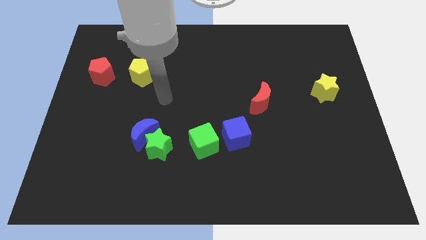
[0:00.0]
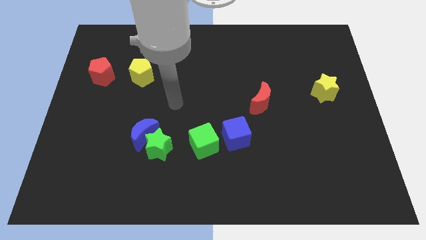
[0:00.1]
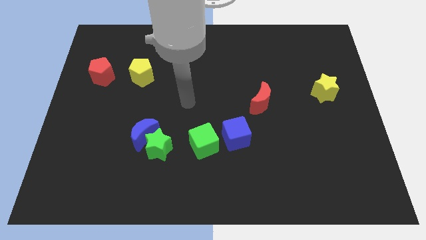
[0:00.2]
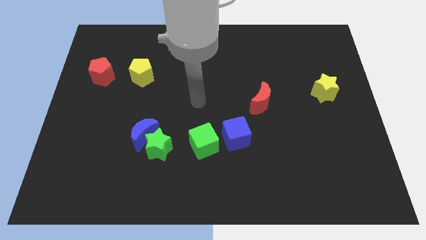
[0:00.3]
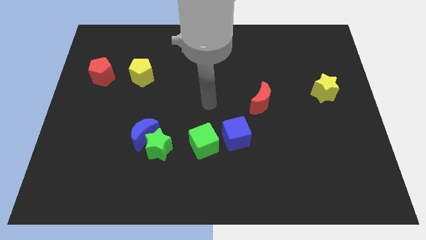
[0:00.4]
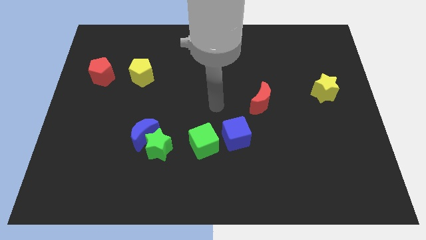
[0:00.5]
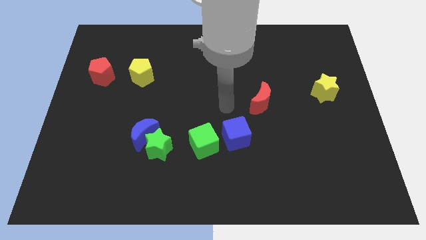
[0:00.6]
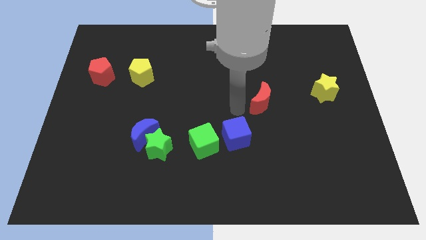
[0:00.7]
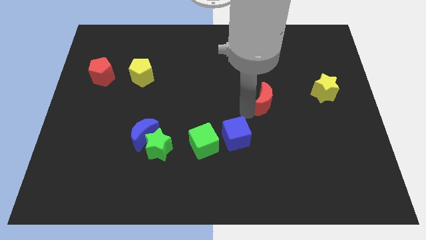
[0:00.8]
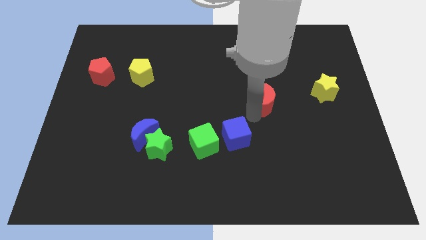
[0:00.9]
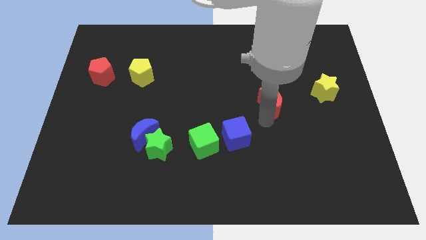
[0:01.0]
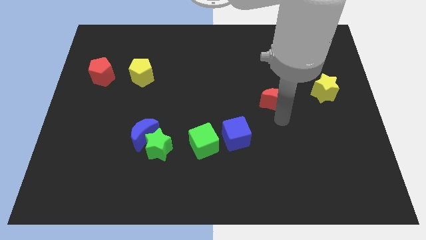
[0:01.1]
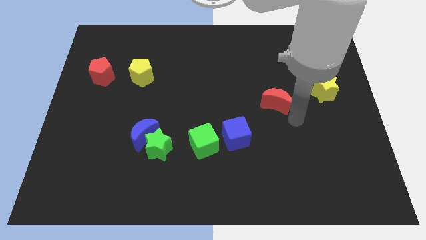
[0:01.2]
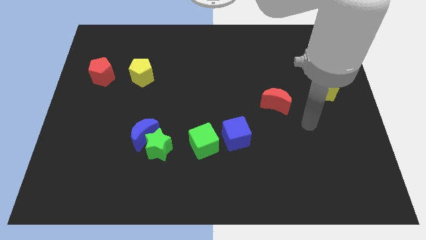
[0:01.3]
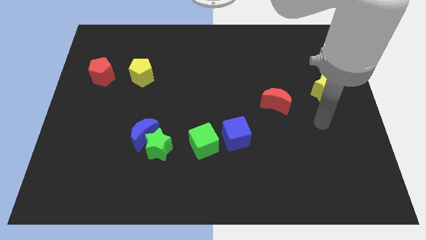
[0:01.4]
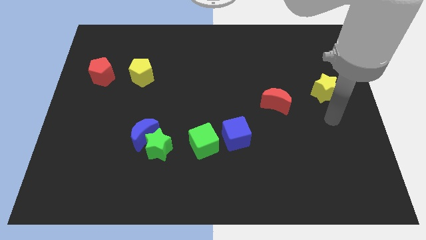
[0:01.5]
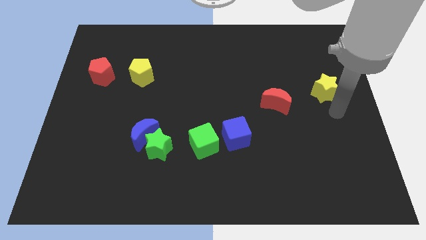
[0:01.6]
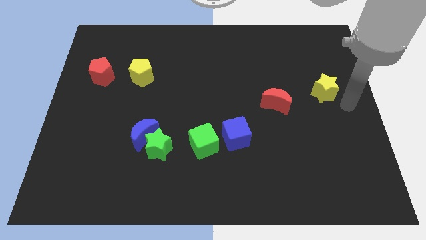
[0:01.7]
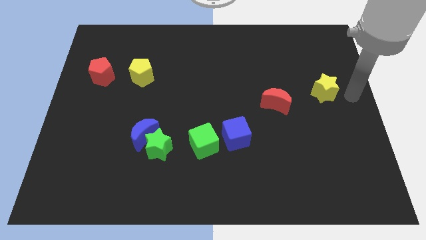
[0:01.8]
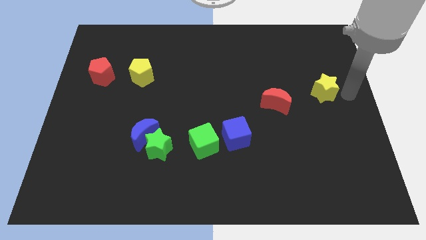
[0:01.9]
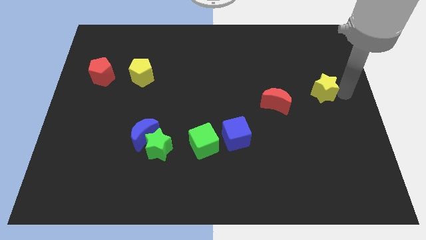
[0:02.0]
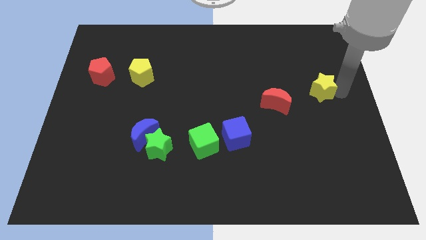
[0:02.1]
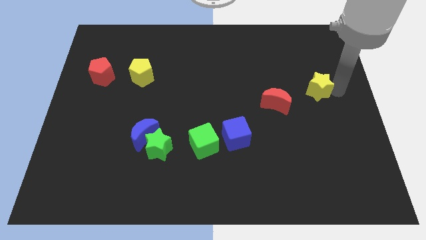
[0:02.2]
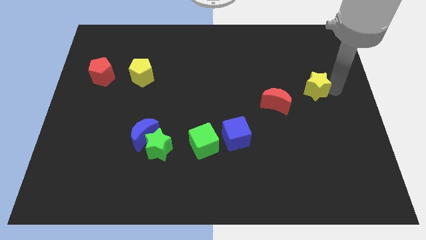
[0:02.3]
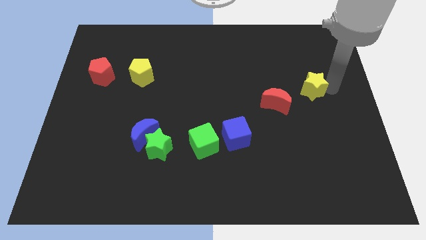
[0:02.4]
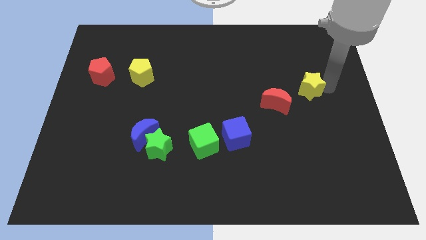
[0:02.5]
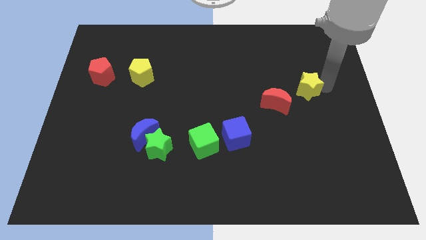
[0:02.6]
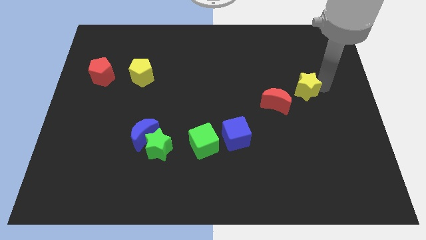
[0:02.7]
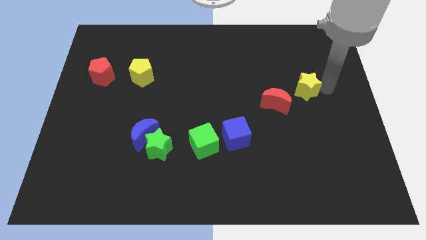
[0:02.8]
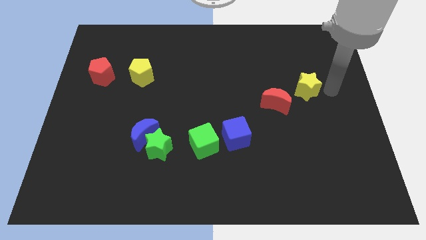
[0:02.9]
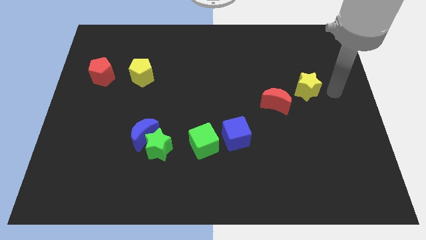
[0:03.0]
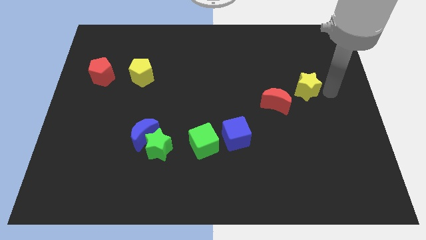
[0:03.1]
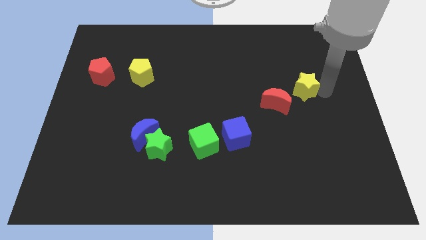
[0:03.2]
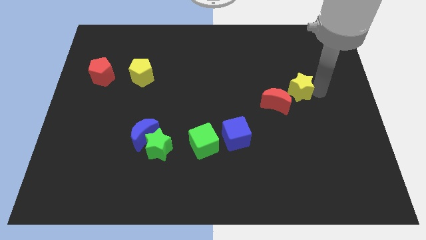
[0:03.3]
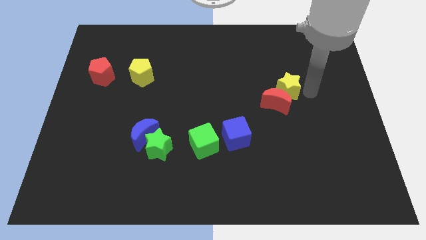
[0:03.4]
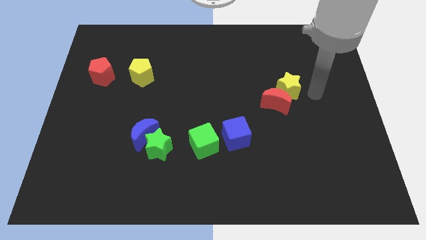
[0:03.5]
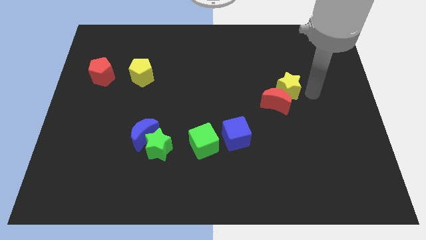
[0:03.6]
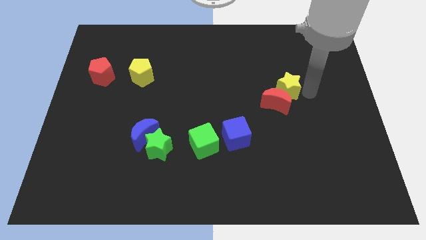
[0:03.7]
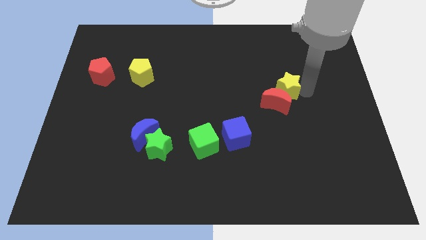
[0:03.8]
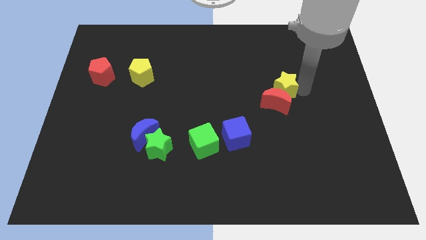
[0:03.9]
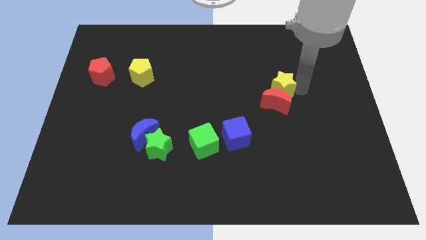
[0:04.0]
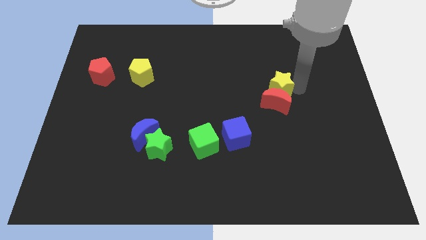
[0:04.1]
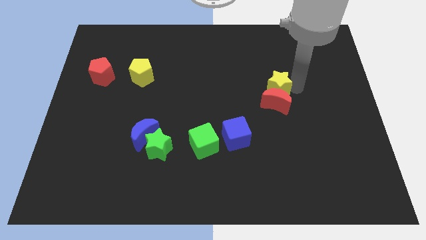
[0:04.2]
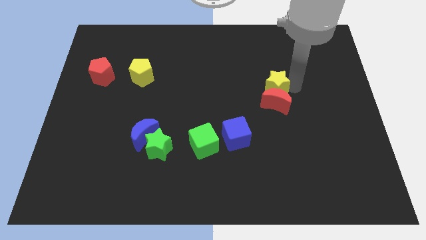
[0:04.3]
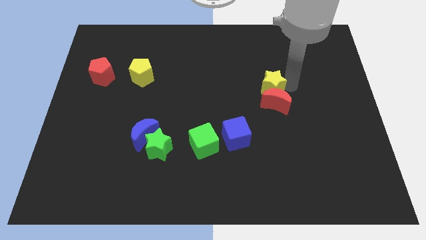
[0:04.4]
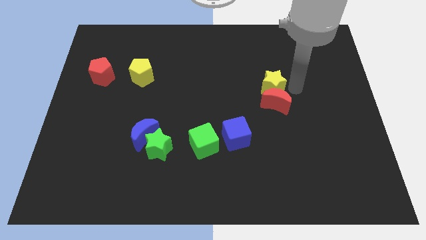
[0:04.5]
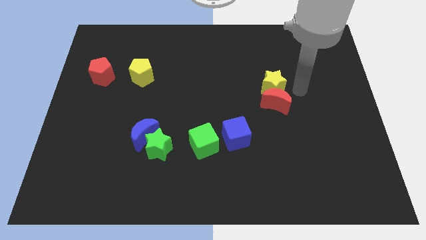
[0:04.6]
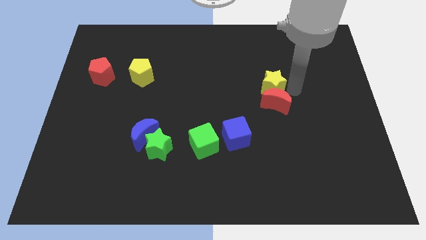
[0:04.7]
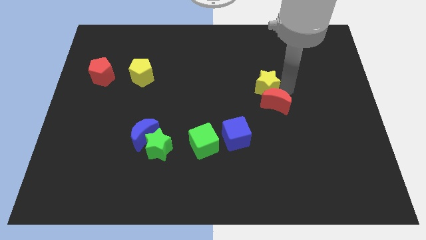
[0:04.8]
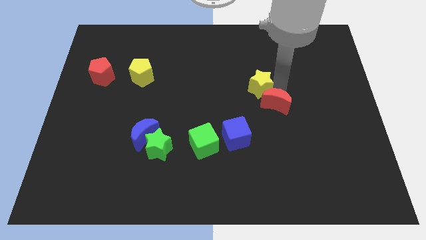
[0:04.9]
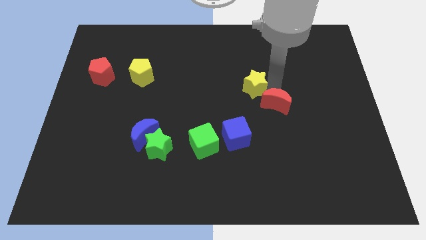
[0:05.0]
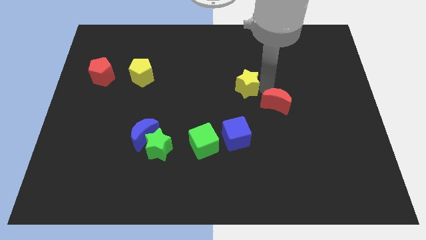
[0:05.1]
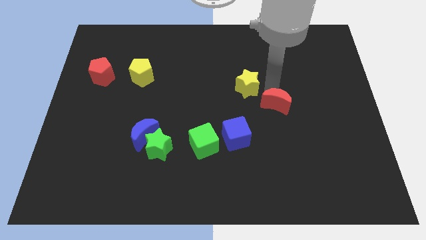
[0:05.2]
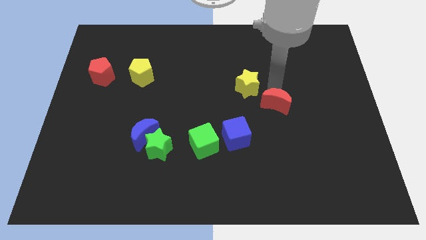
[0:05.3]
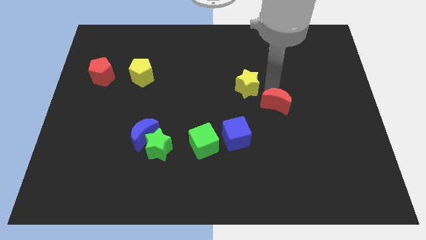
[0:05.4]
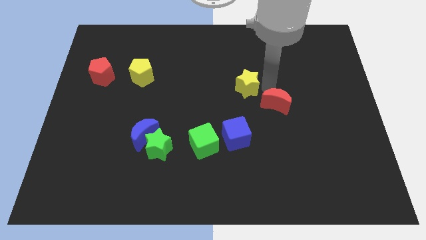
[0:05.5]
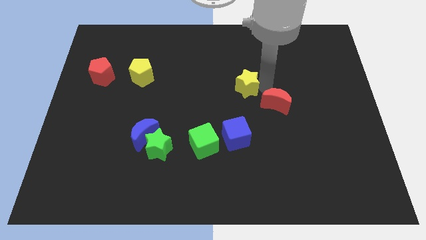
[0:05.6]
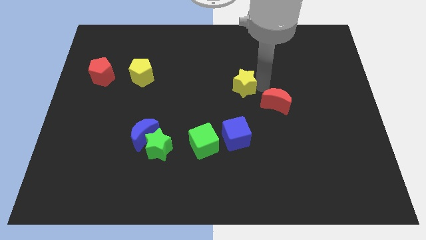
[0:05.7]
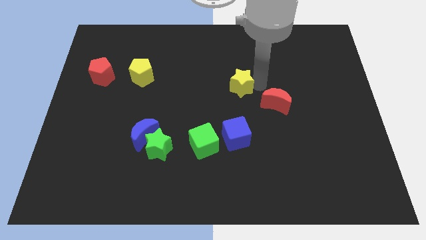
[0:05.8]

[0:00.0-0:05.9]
push the yellow star to the left

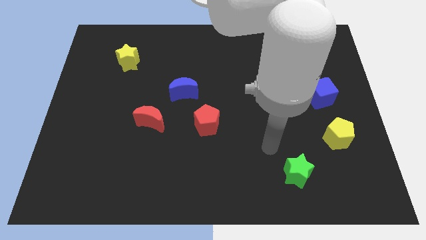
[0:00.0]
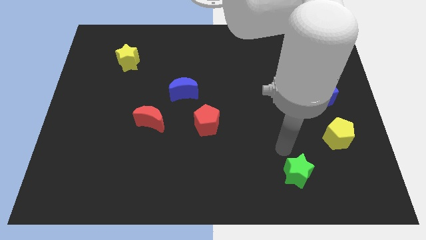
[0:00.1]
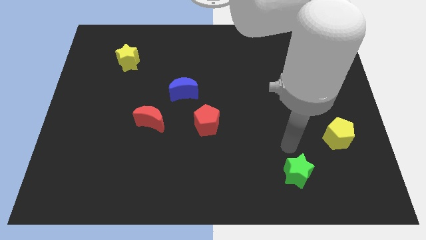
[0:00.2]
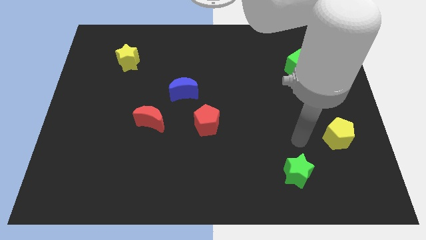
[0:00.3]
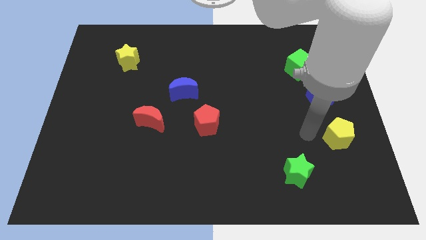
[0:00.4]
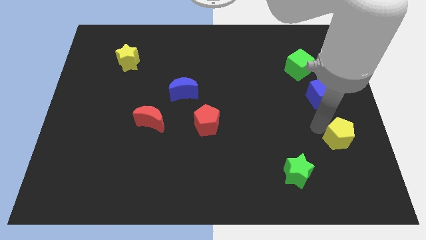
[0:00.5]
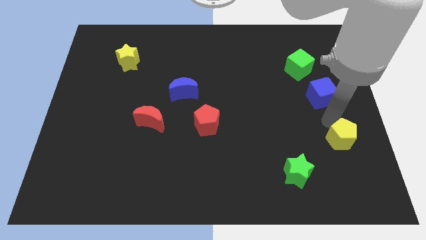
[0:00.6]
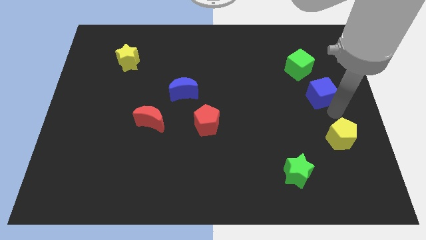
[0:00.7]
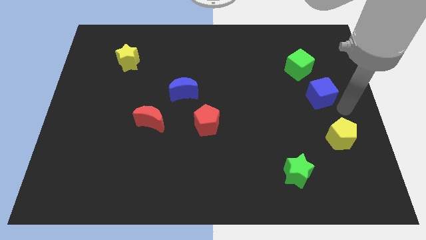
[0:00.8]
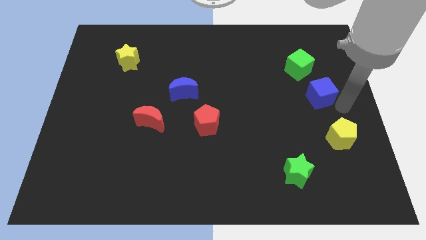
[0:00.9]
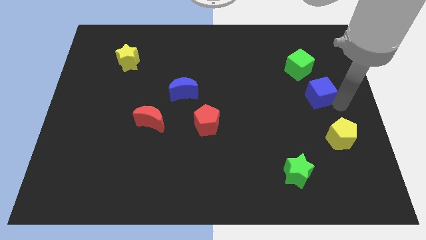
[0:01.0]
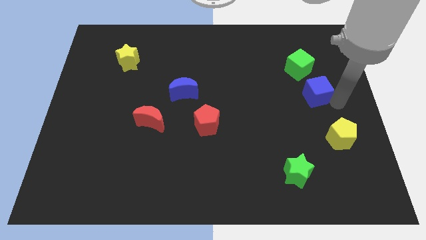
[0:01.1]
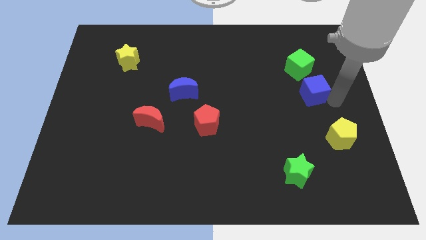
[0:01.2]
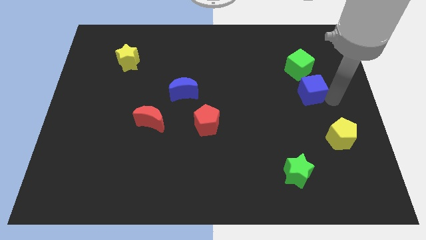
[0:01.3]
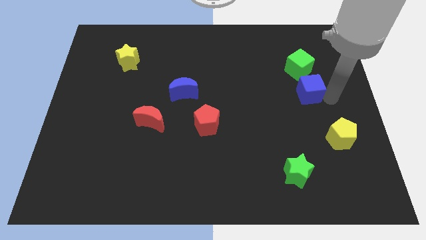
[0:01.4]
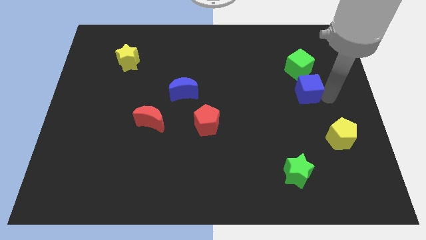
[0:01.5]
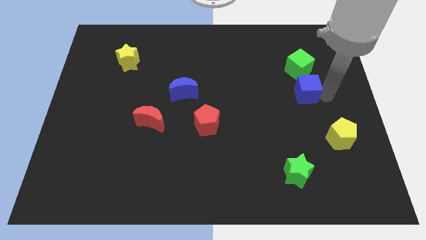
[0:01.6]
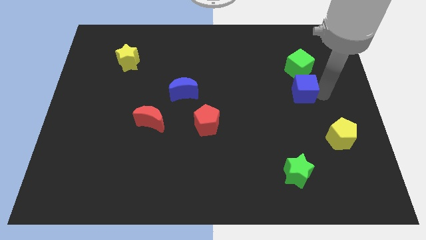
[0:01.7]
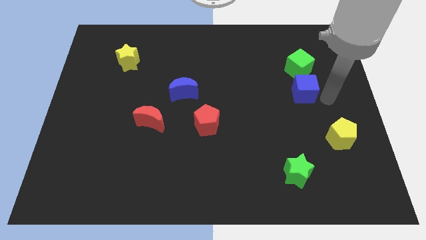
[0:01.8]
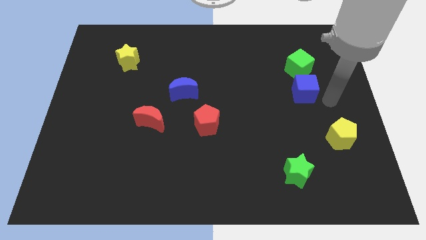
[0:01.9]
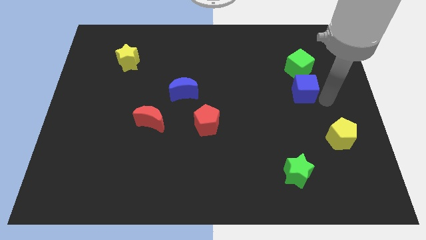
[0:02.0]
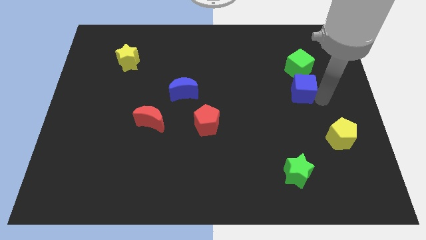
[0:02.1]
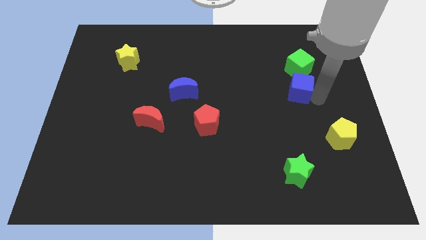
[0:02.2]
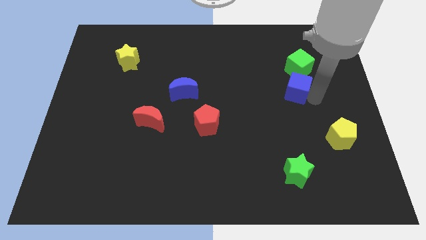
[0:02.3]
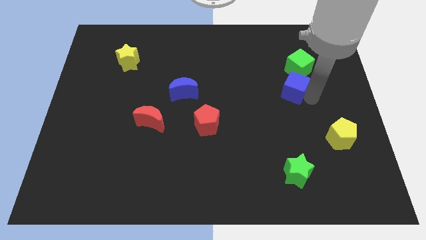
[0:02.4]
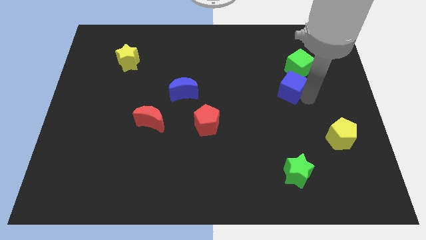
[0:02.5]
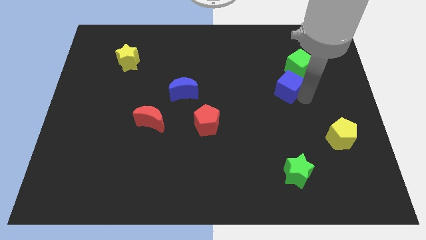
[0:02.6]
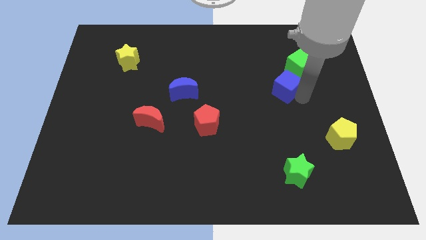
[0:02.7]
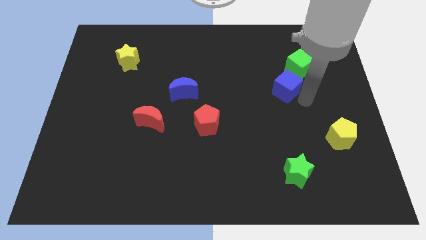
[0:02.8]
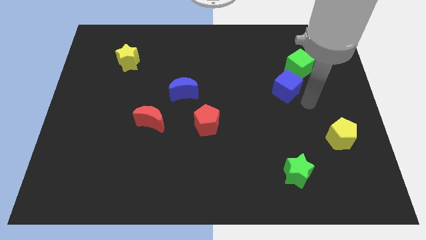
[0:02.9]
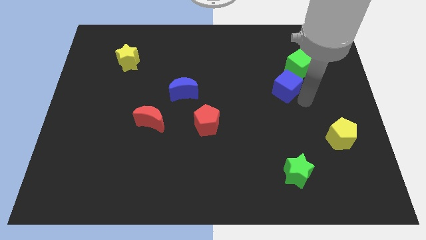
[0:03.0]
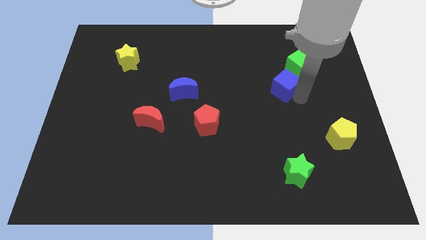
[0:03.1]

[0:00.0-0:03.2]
push the blue cube up and then to the left somewhat
